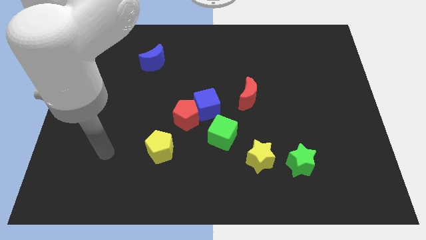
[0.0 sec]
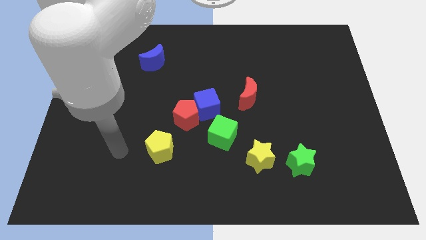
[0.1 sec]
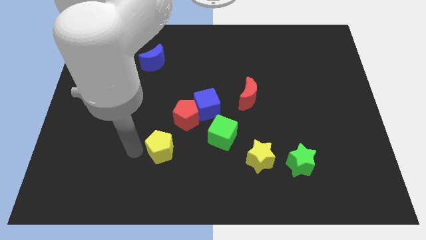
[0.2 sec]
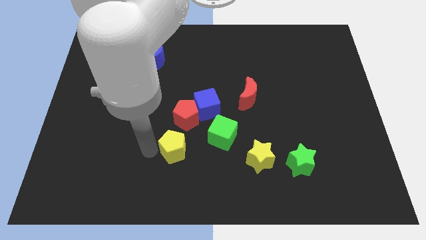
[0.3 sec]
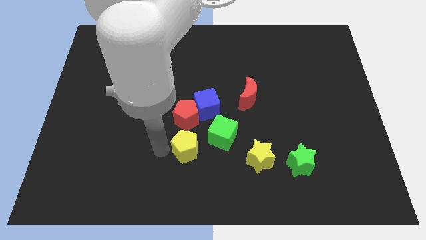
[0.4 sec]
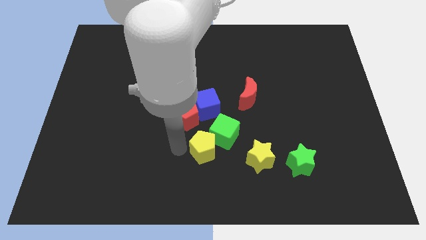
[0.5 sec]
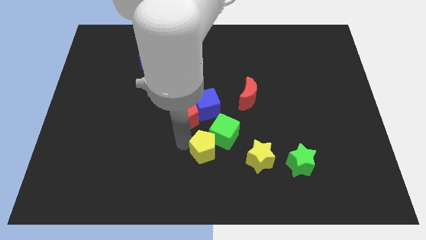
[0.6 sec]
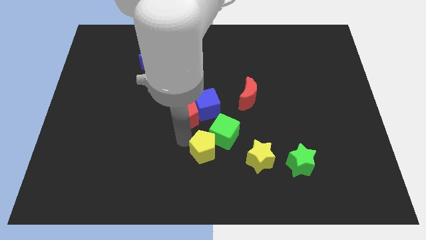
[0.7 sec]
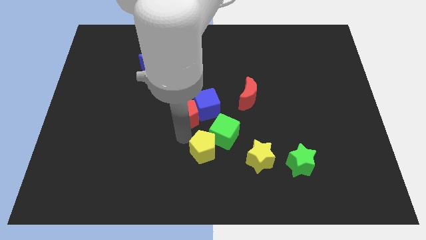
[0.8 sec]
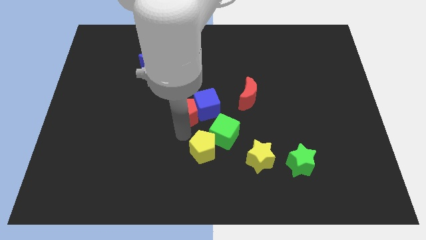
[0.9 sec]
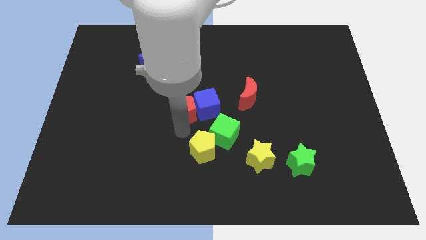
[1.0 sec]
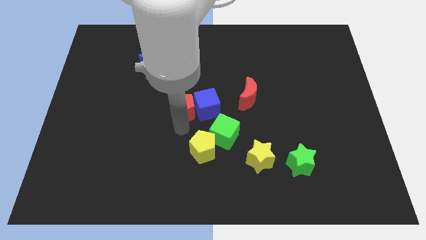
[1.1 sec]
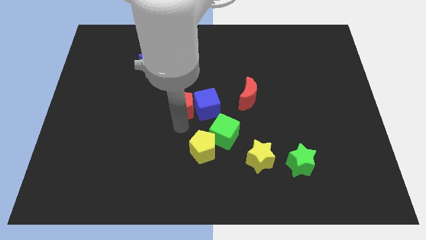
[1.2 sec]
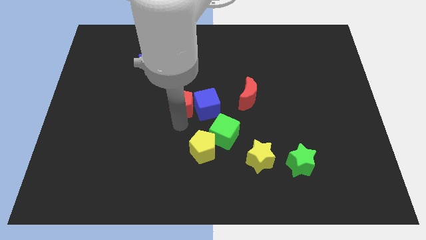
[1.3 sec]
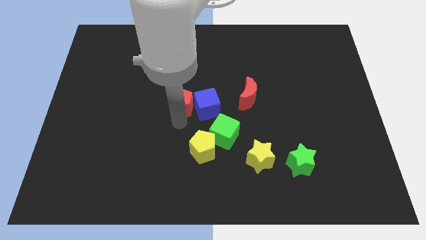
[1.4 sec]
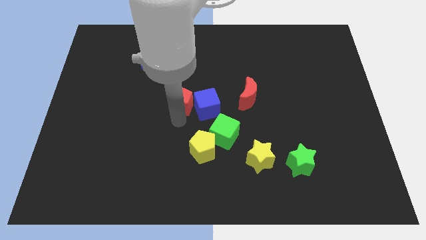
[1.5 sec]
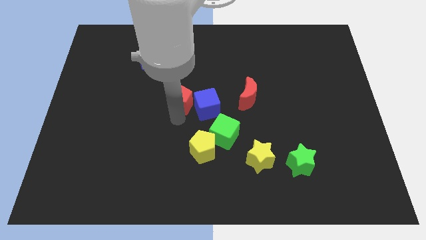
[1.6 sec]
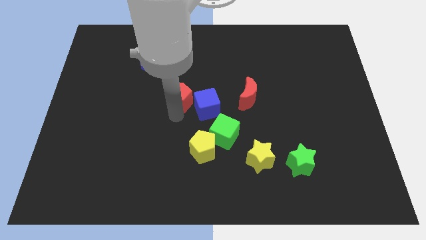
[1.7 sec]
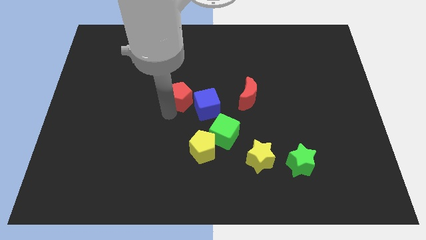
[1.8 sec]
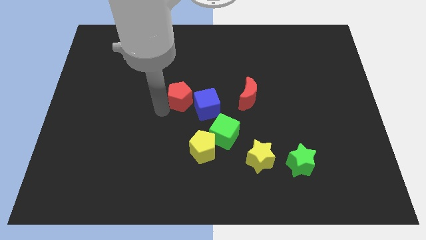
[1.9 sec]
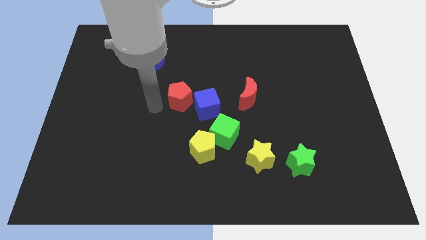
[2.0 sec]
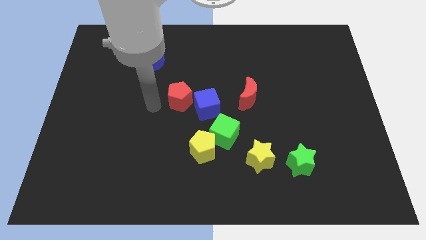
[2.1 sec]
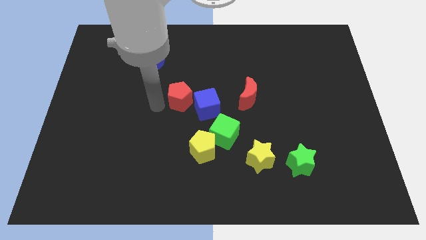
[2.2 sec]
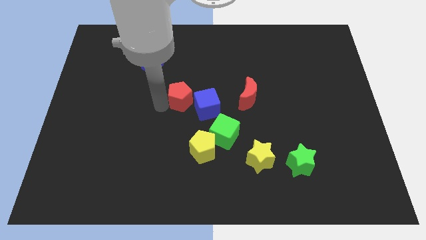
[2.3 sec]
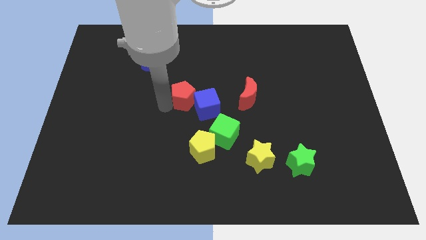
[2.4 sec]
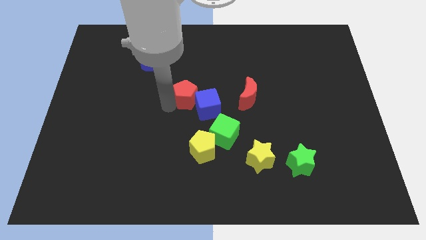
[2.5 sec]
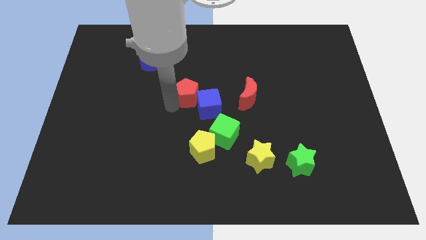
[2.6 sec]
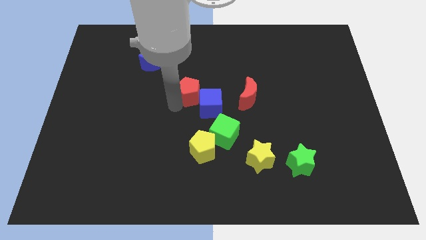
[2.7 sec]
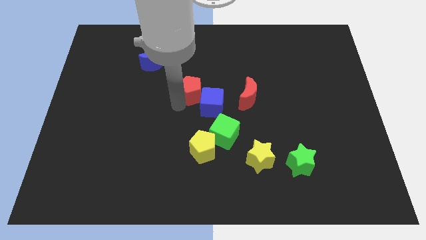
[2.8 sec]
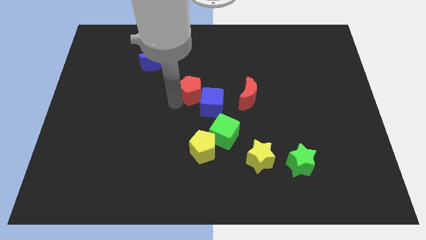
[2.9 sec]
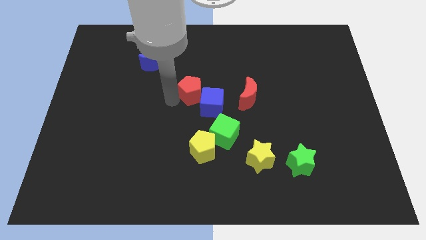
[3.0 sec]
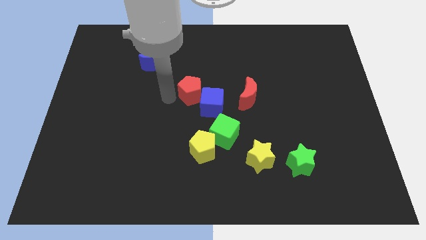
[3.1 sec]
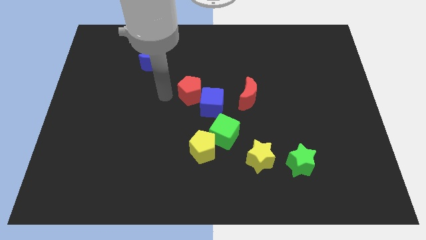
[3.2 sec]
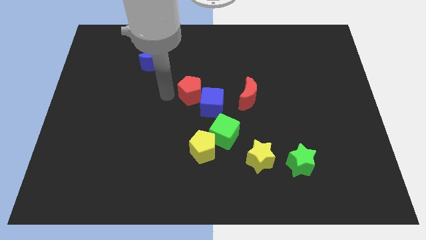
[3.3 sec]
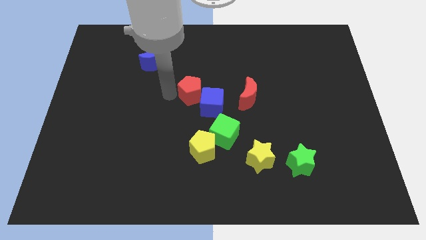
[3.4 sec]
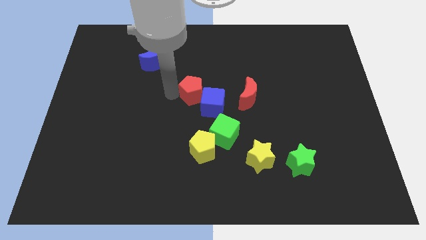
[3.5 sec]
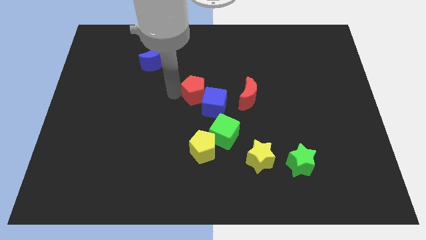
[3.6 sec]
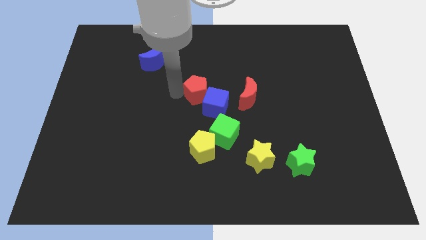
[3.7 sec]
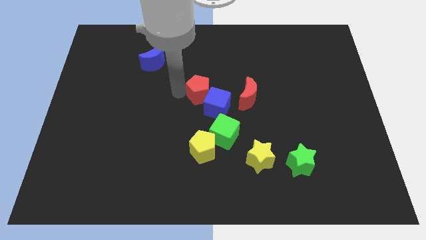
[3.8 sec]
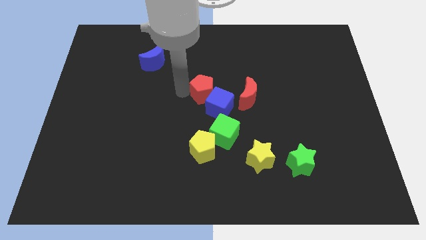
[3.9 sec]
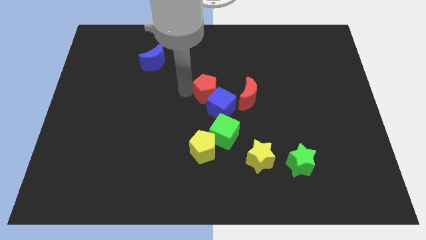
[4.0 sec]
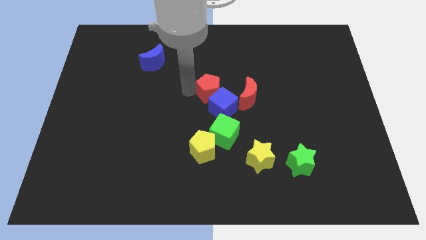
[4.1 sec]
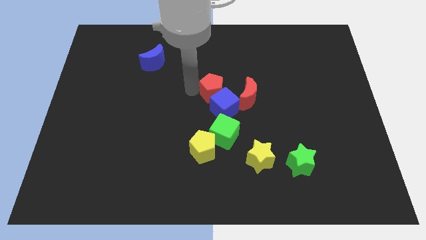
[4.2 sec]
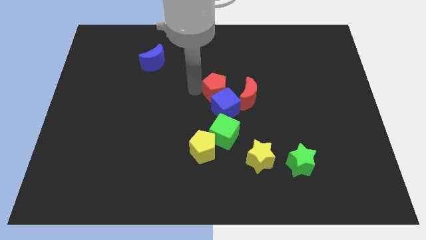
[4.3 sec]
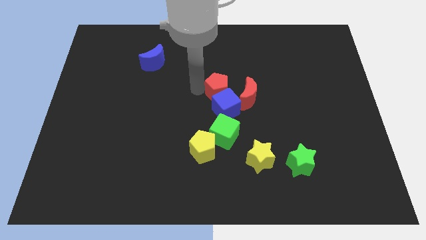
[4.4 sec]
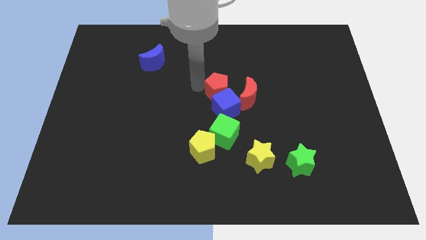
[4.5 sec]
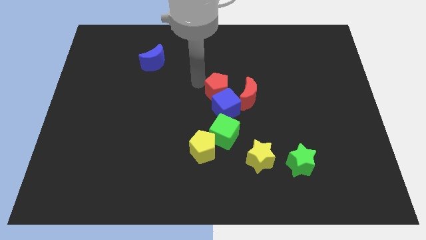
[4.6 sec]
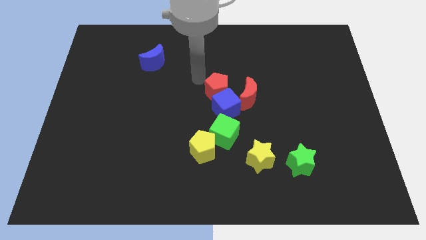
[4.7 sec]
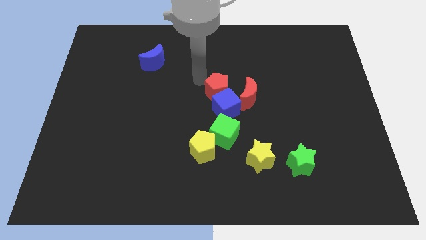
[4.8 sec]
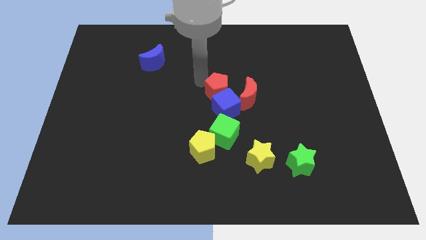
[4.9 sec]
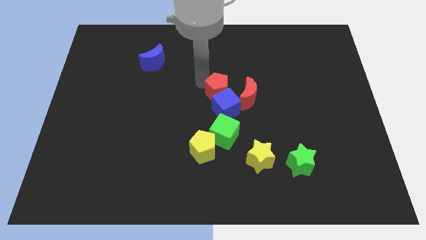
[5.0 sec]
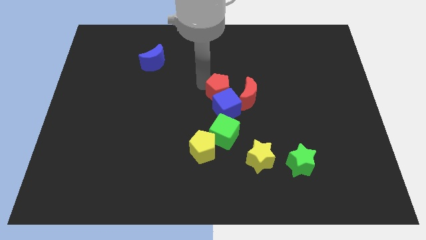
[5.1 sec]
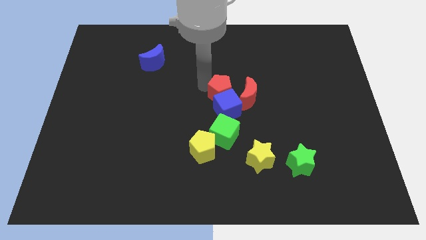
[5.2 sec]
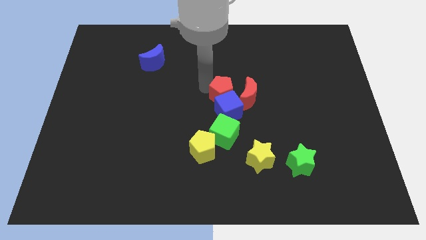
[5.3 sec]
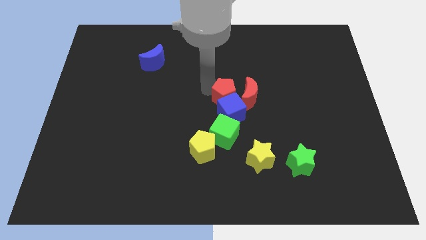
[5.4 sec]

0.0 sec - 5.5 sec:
slightly slide the red pentagon right

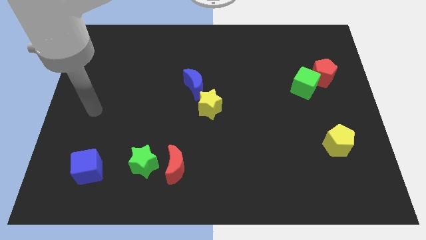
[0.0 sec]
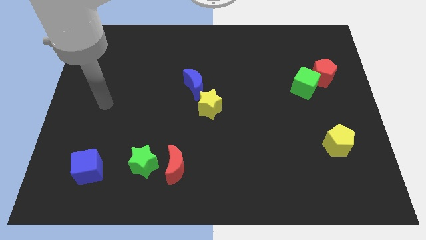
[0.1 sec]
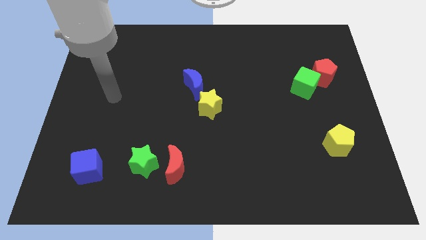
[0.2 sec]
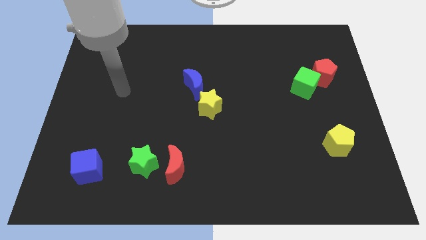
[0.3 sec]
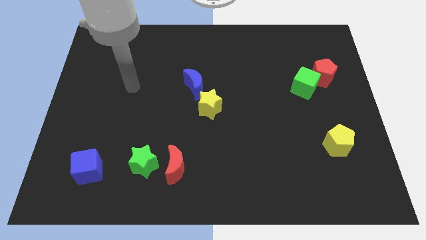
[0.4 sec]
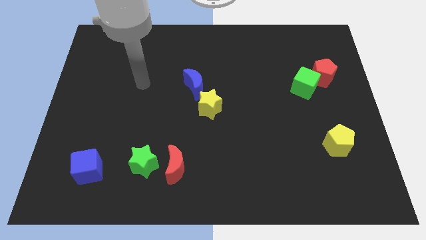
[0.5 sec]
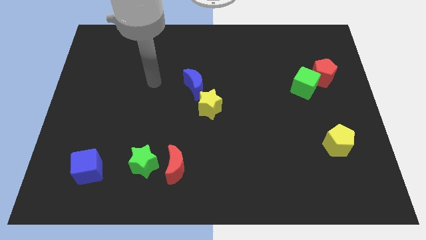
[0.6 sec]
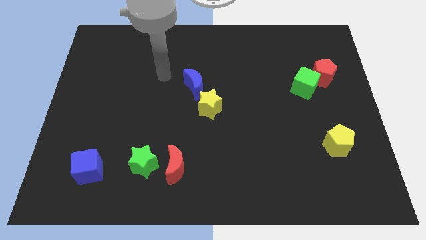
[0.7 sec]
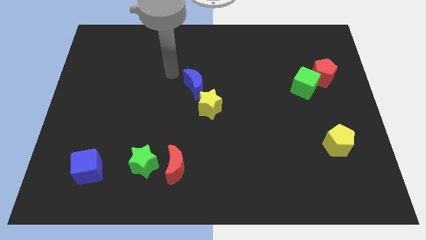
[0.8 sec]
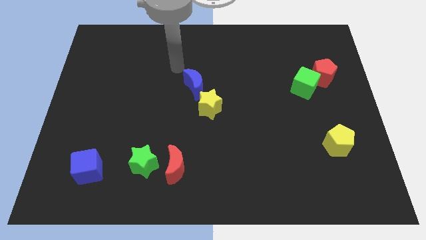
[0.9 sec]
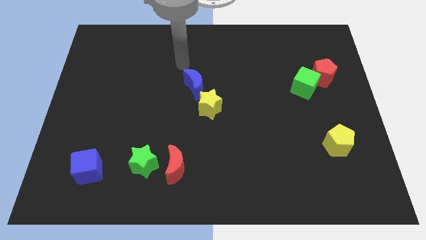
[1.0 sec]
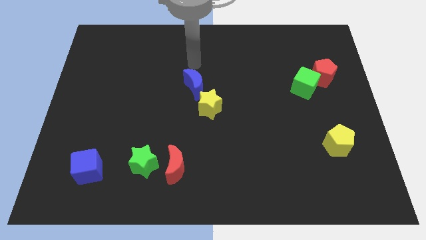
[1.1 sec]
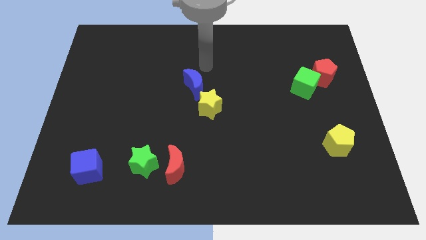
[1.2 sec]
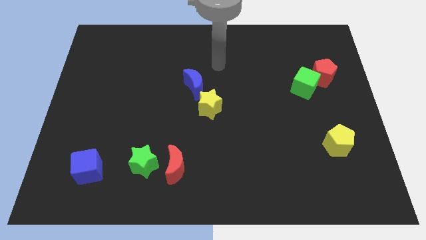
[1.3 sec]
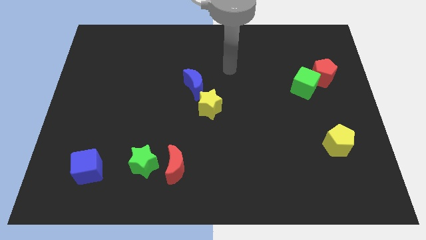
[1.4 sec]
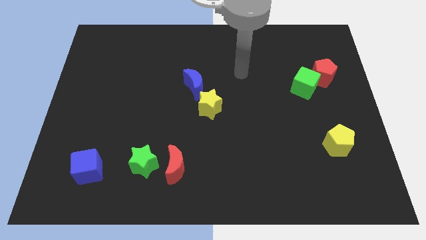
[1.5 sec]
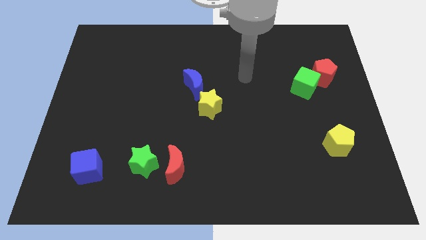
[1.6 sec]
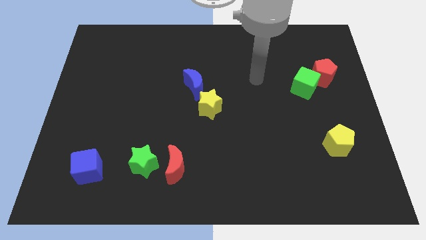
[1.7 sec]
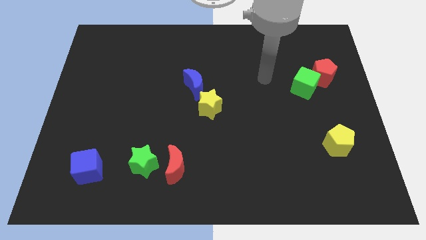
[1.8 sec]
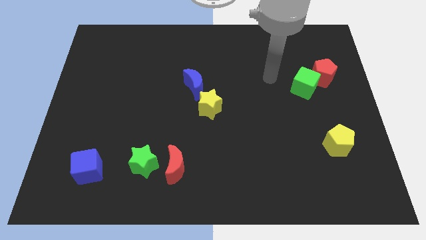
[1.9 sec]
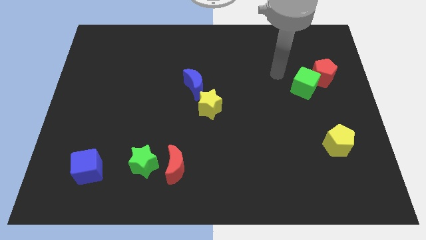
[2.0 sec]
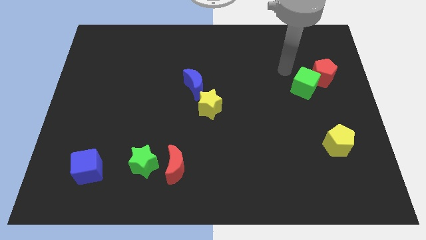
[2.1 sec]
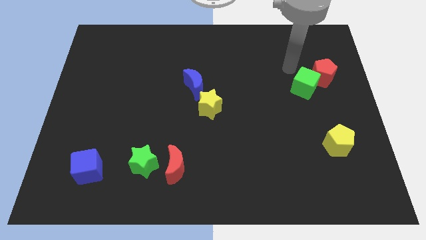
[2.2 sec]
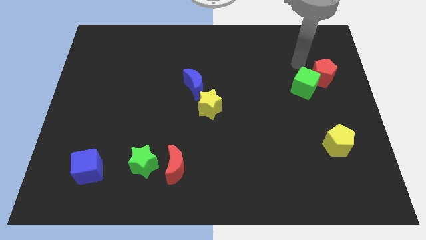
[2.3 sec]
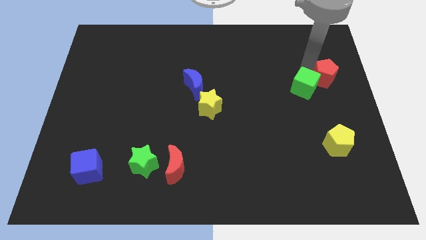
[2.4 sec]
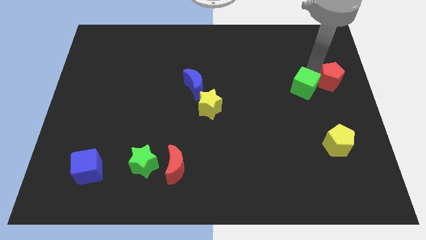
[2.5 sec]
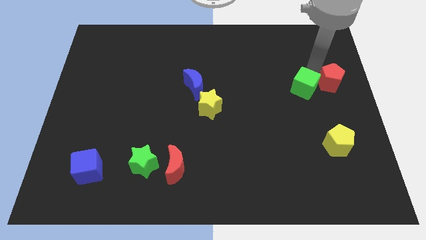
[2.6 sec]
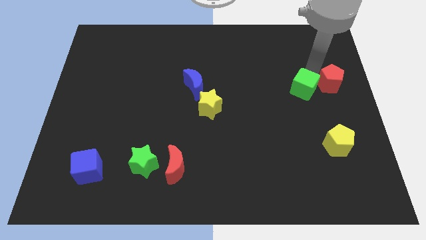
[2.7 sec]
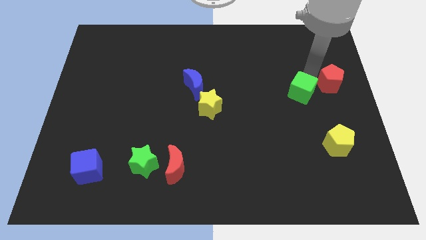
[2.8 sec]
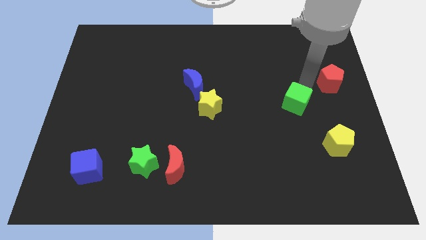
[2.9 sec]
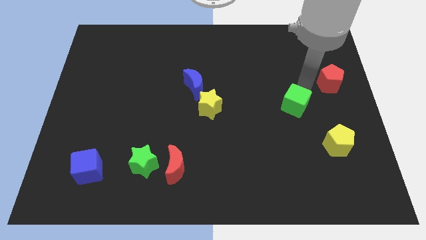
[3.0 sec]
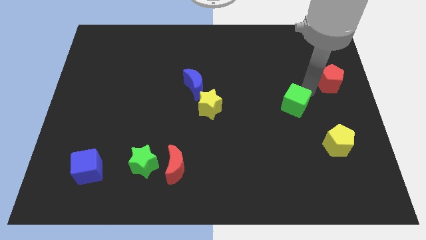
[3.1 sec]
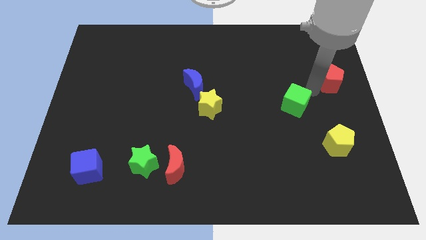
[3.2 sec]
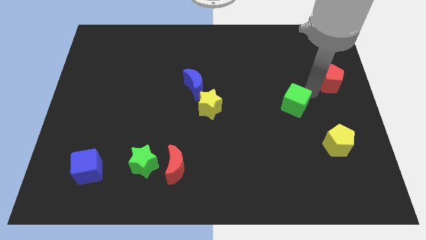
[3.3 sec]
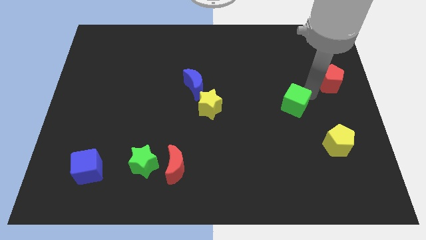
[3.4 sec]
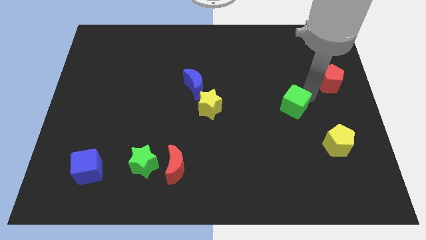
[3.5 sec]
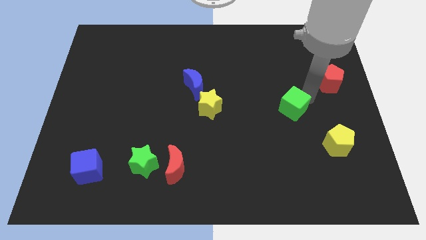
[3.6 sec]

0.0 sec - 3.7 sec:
slightly push the green cube downwards and then left
